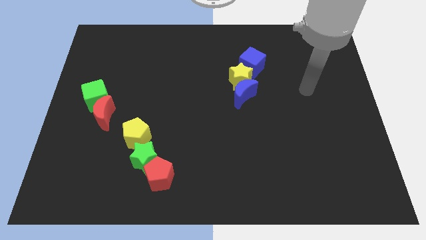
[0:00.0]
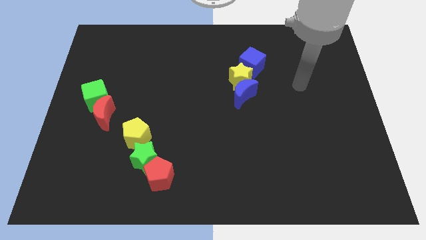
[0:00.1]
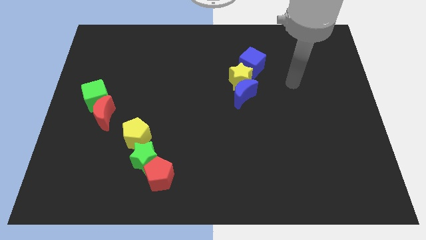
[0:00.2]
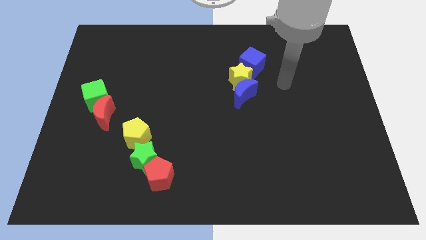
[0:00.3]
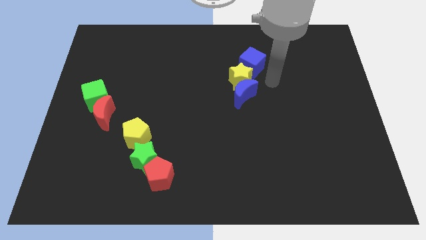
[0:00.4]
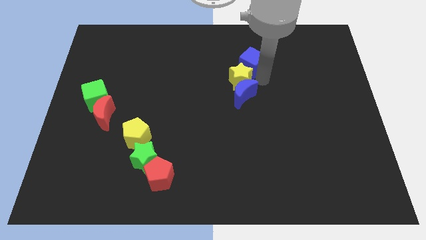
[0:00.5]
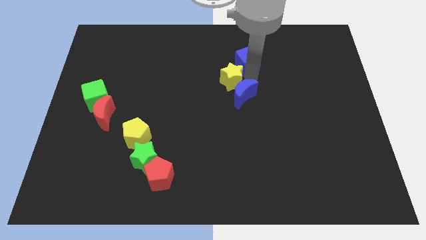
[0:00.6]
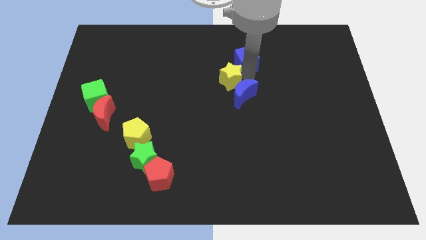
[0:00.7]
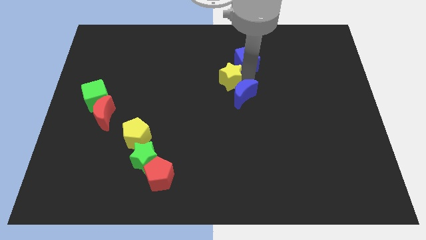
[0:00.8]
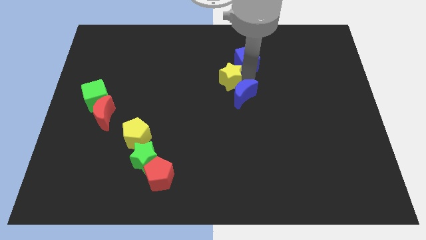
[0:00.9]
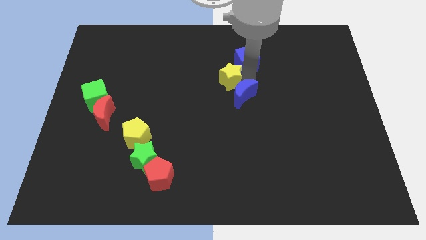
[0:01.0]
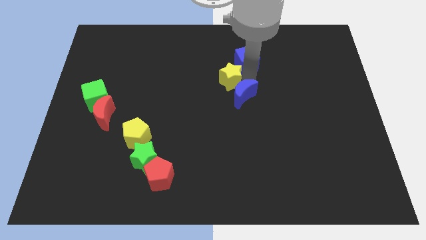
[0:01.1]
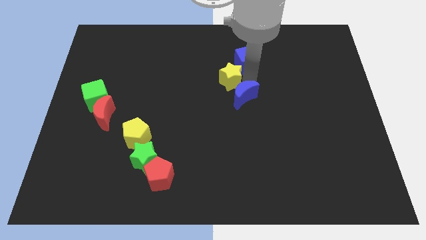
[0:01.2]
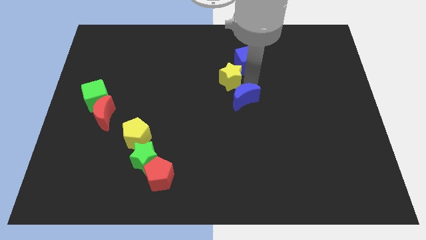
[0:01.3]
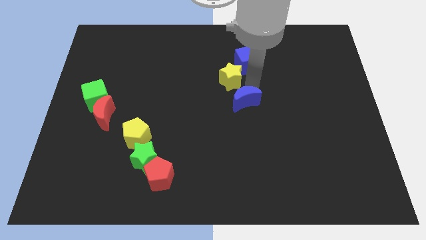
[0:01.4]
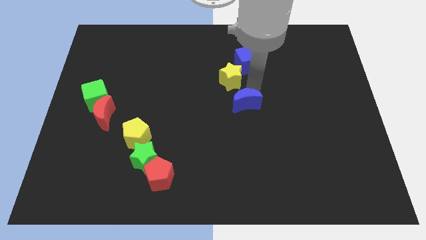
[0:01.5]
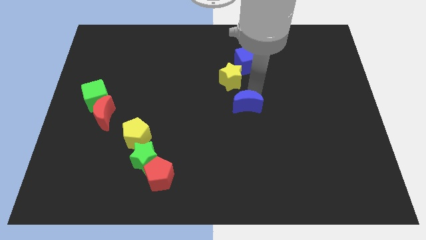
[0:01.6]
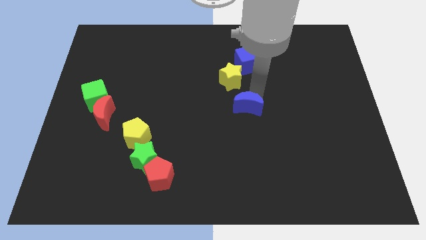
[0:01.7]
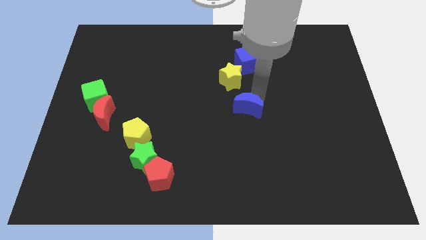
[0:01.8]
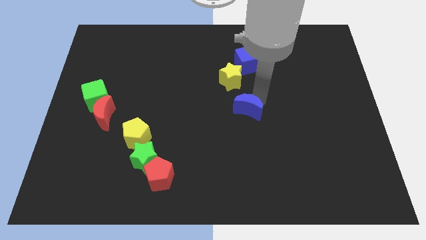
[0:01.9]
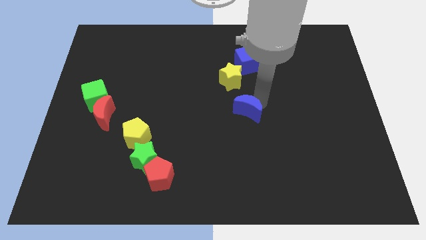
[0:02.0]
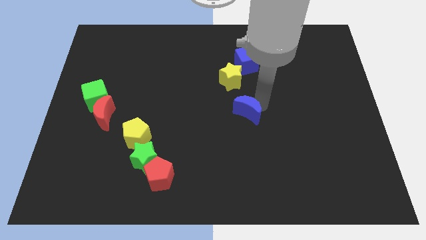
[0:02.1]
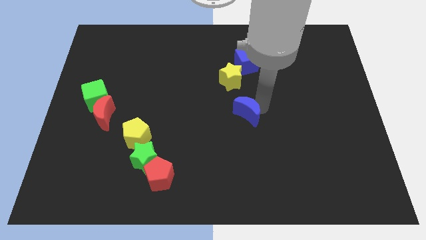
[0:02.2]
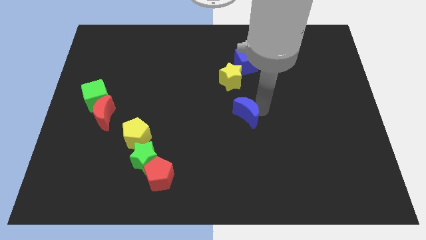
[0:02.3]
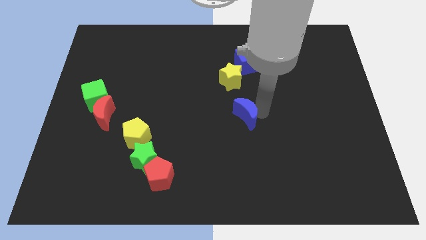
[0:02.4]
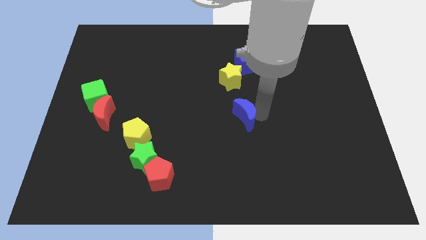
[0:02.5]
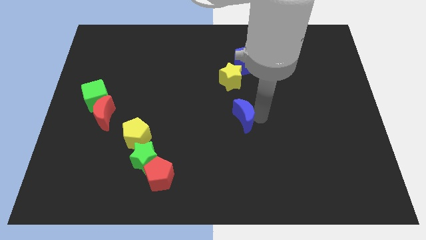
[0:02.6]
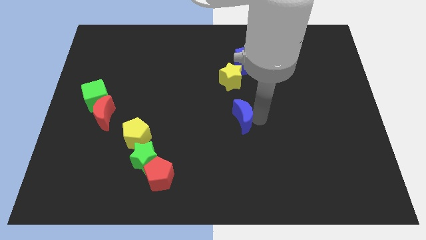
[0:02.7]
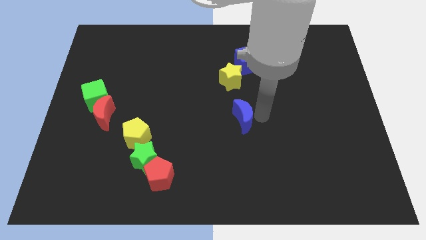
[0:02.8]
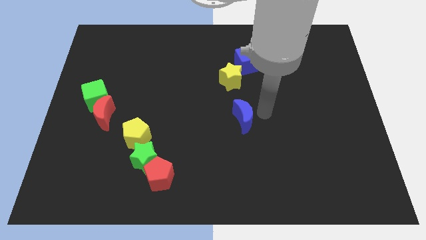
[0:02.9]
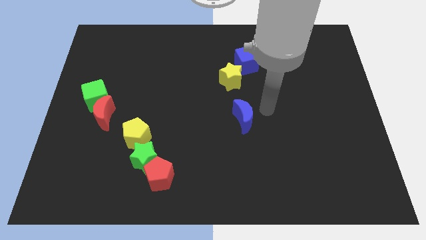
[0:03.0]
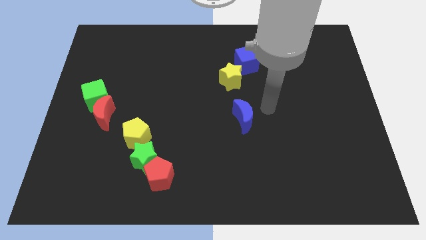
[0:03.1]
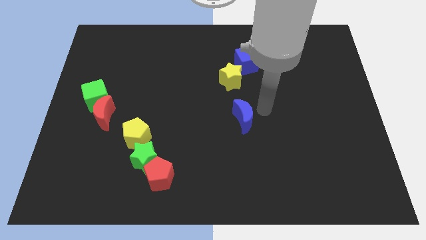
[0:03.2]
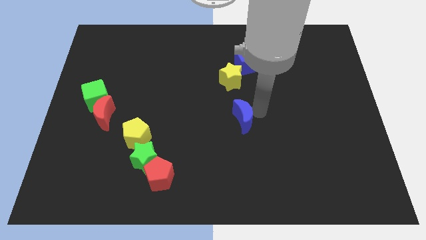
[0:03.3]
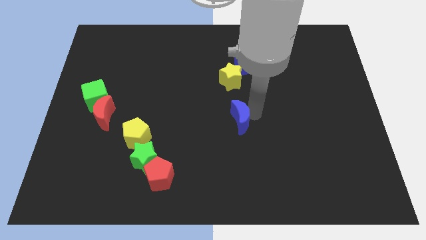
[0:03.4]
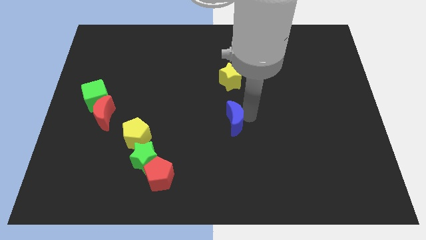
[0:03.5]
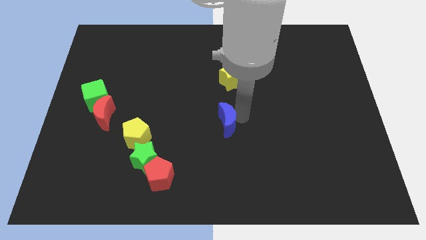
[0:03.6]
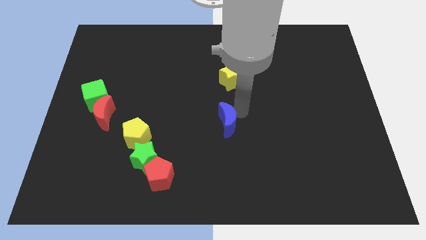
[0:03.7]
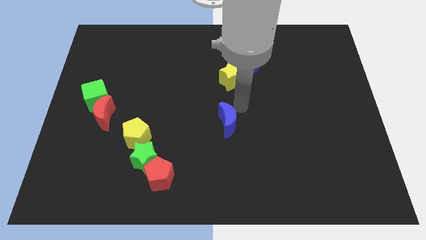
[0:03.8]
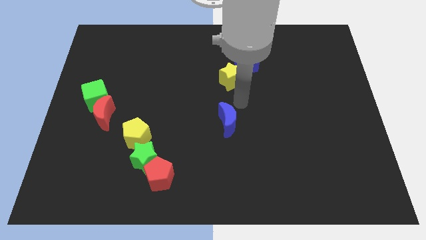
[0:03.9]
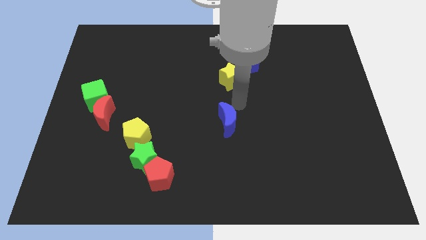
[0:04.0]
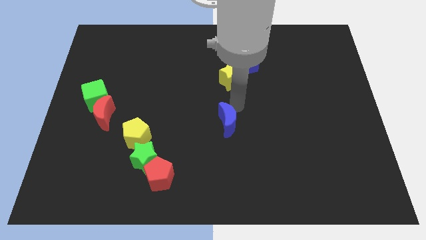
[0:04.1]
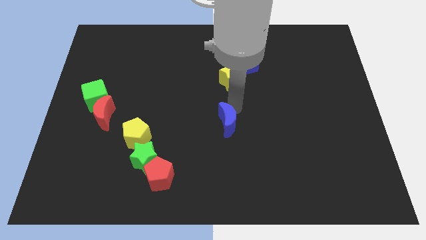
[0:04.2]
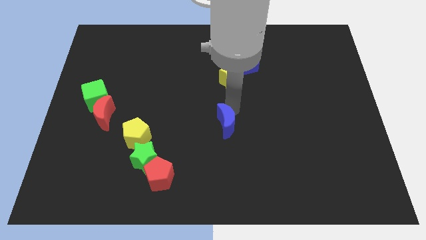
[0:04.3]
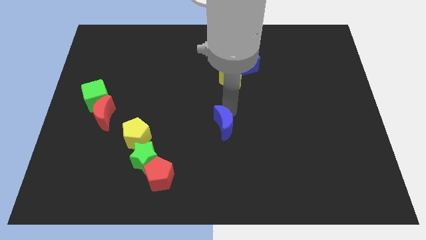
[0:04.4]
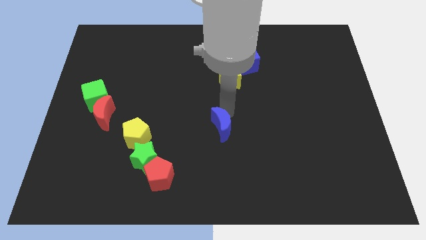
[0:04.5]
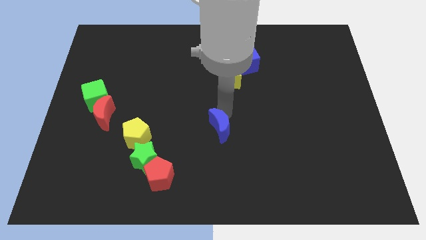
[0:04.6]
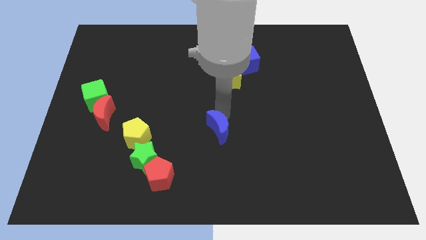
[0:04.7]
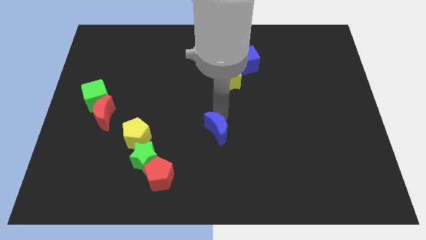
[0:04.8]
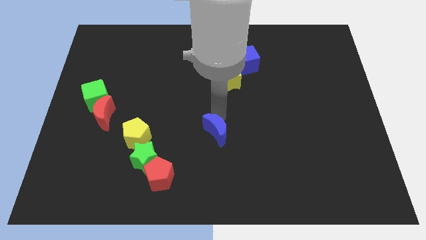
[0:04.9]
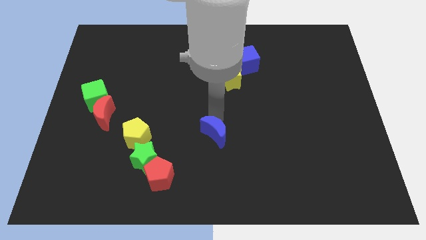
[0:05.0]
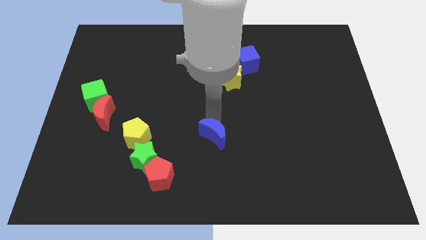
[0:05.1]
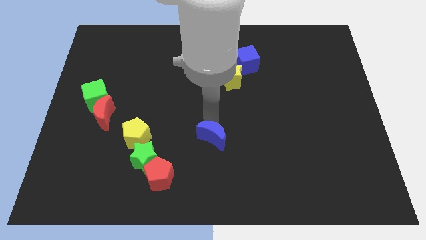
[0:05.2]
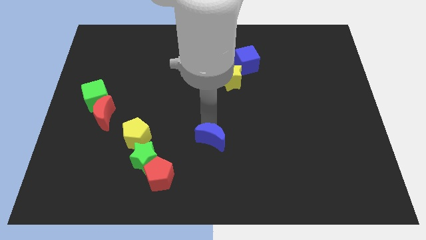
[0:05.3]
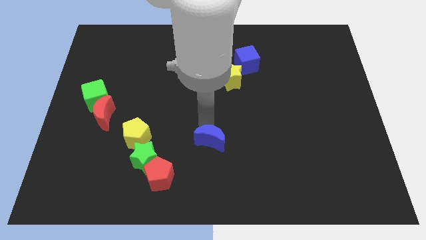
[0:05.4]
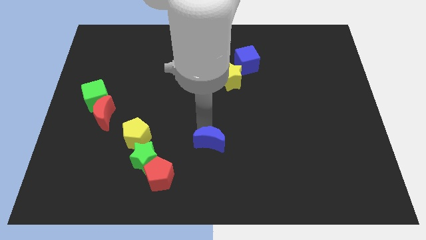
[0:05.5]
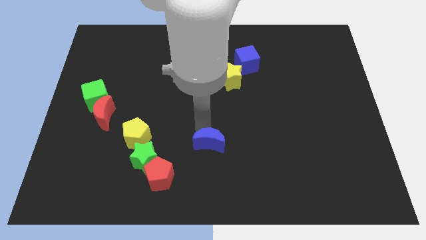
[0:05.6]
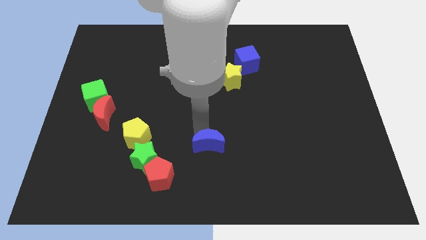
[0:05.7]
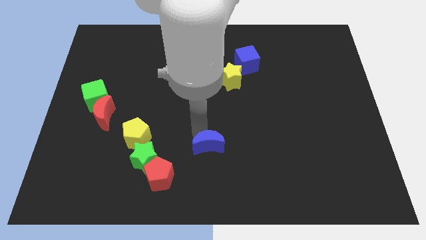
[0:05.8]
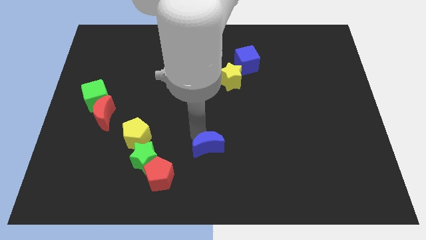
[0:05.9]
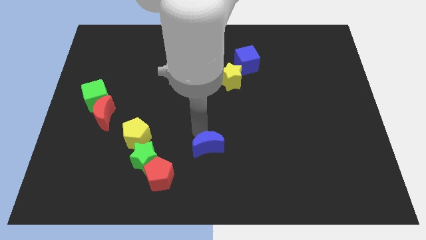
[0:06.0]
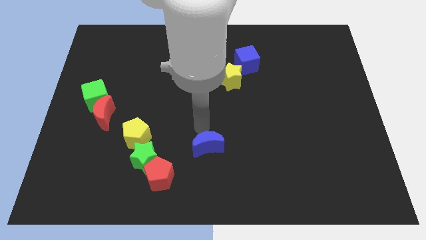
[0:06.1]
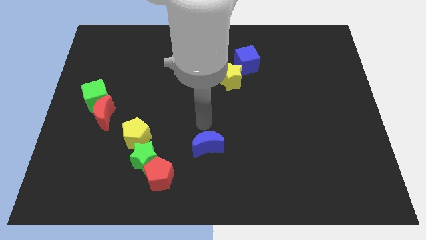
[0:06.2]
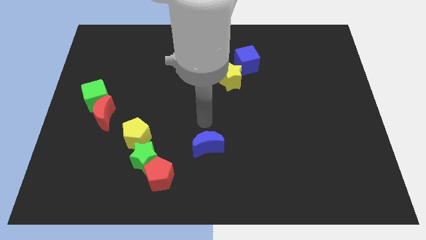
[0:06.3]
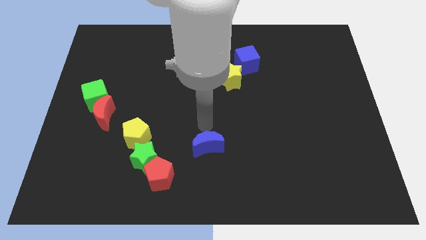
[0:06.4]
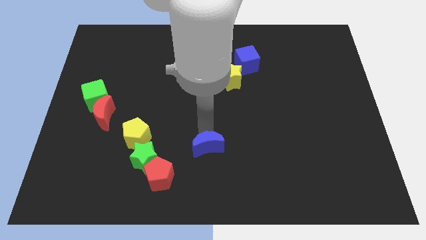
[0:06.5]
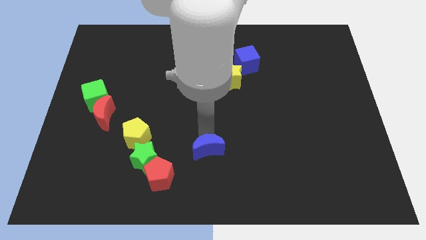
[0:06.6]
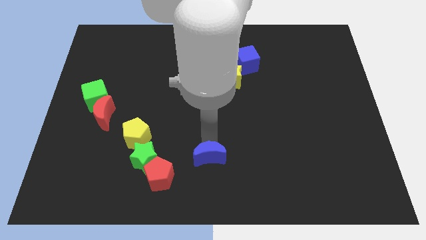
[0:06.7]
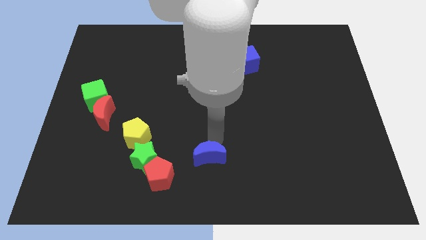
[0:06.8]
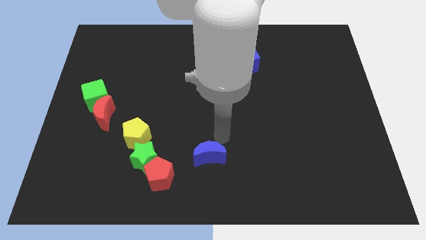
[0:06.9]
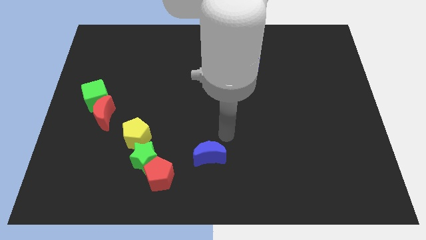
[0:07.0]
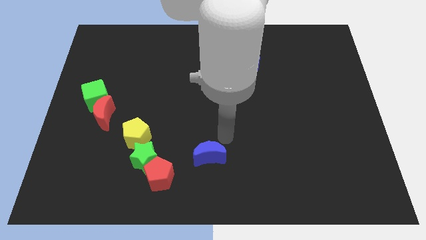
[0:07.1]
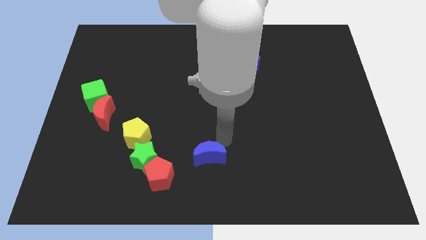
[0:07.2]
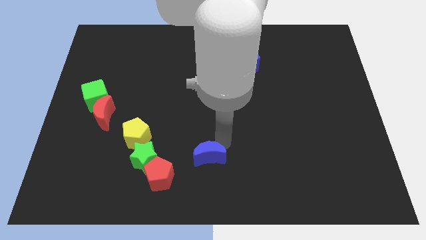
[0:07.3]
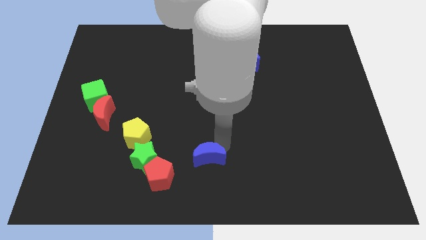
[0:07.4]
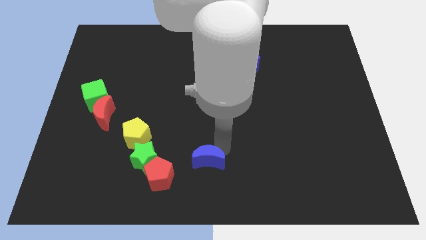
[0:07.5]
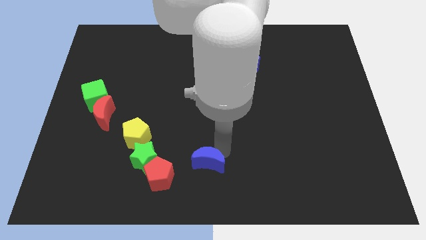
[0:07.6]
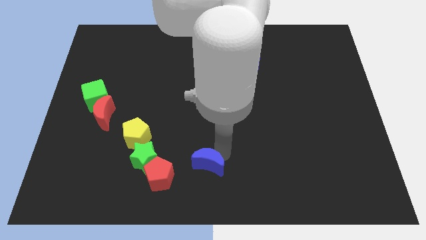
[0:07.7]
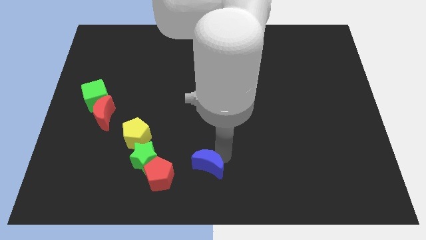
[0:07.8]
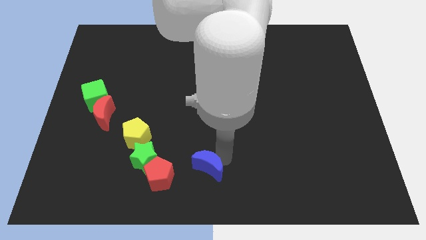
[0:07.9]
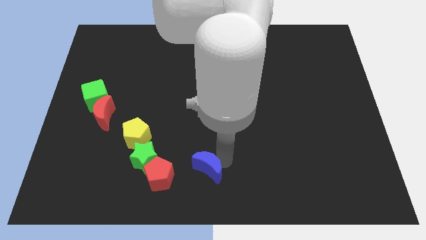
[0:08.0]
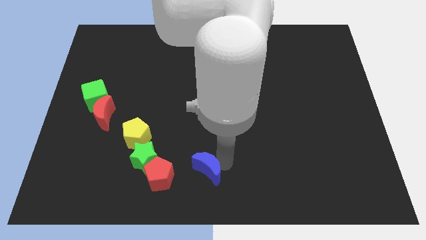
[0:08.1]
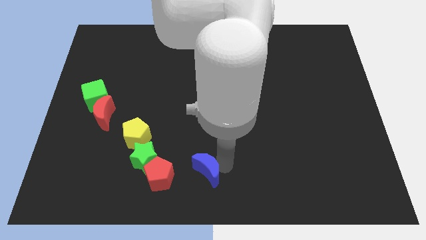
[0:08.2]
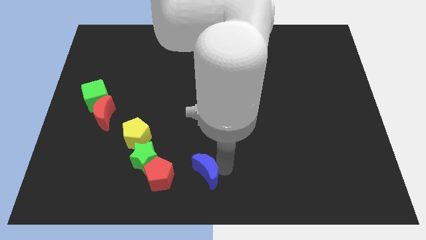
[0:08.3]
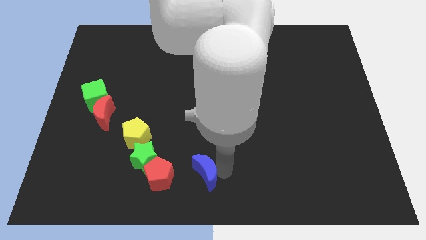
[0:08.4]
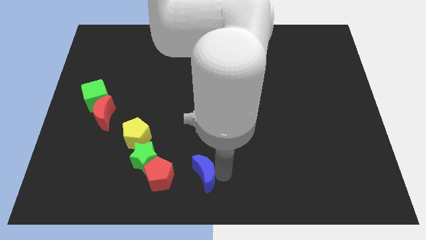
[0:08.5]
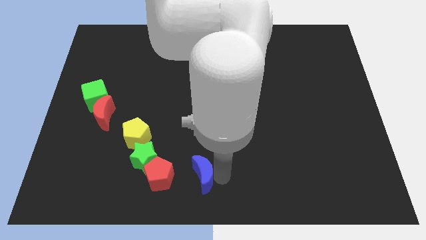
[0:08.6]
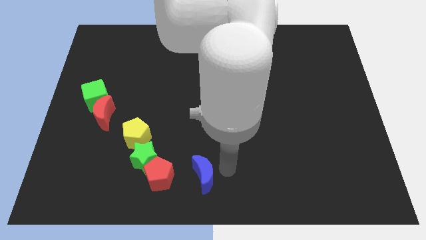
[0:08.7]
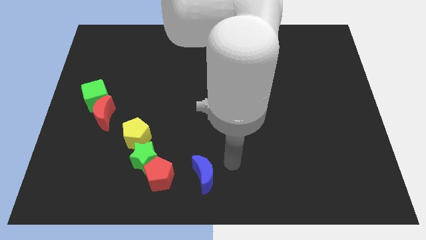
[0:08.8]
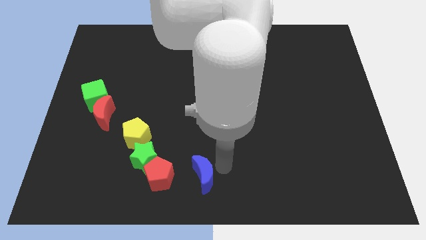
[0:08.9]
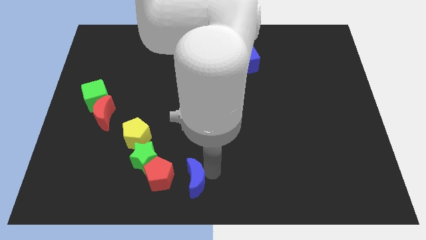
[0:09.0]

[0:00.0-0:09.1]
push the blue moon diagonally down and left
